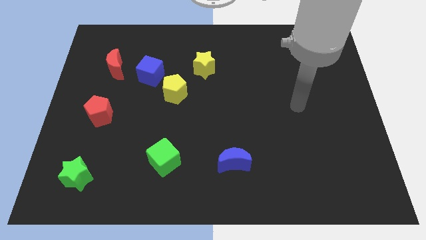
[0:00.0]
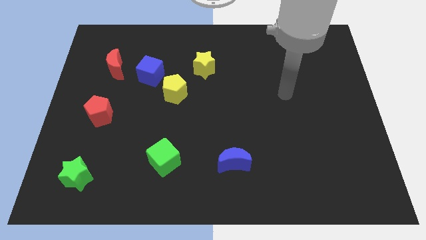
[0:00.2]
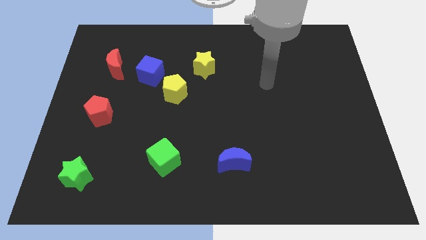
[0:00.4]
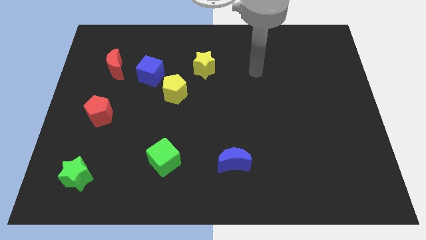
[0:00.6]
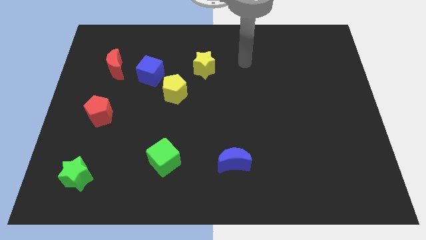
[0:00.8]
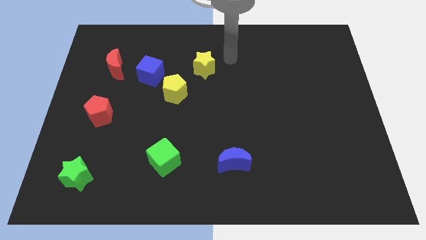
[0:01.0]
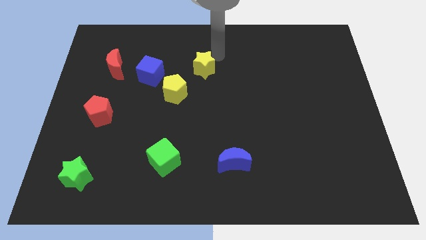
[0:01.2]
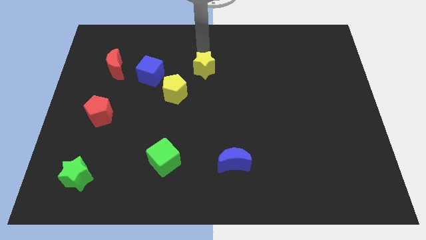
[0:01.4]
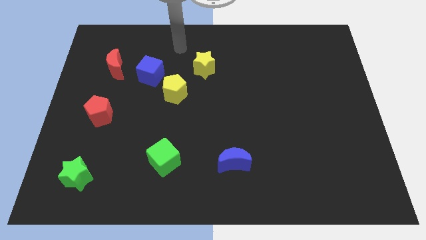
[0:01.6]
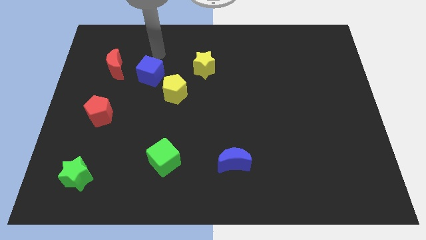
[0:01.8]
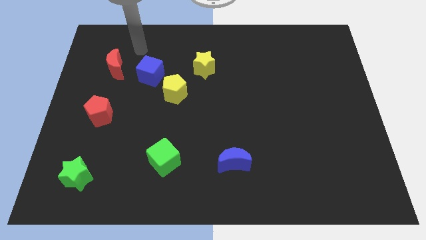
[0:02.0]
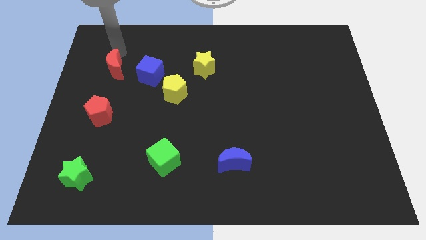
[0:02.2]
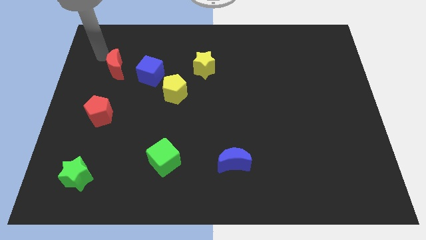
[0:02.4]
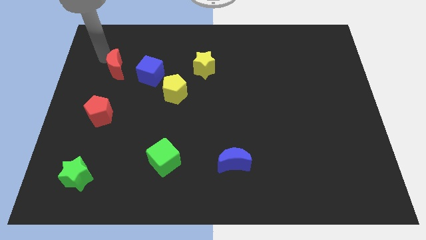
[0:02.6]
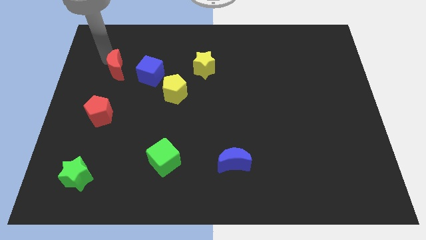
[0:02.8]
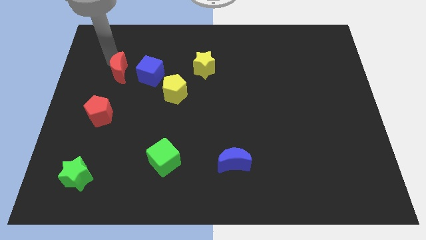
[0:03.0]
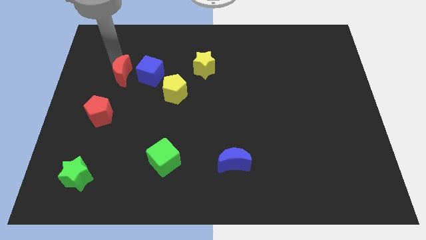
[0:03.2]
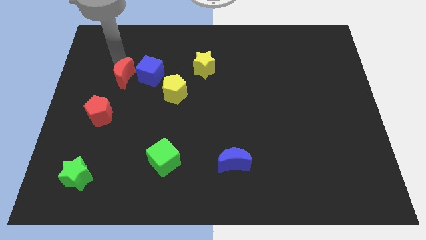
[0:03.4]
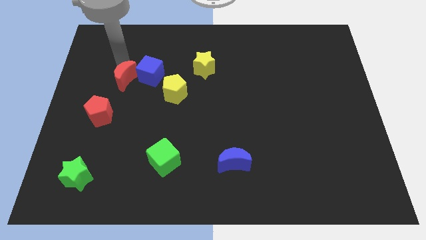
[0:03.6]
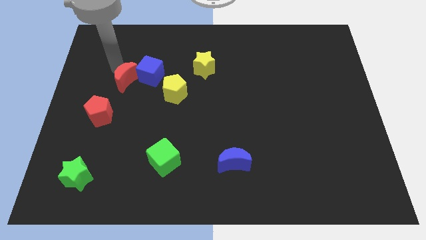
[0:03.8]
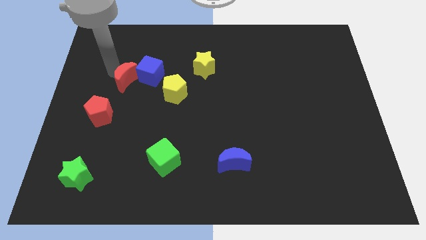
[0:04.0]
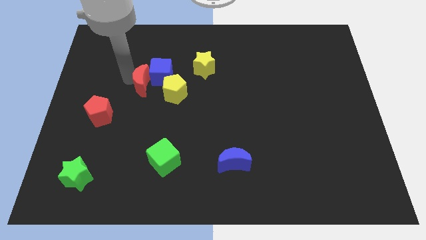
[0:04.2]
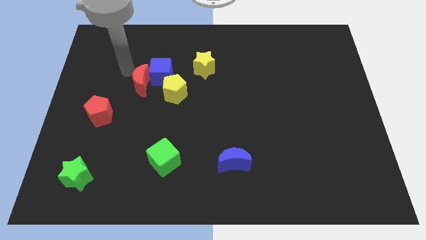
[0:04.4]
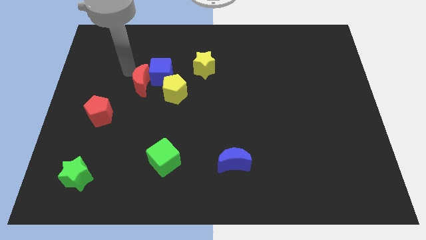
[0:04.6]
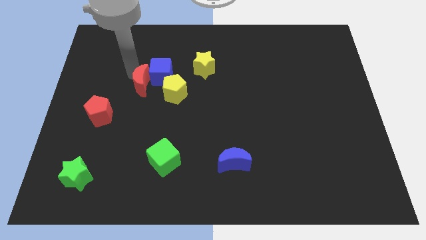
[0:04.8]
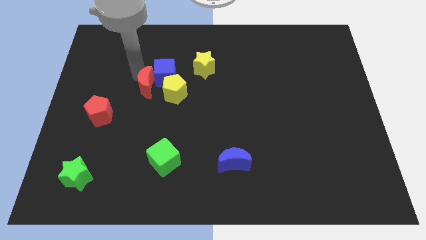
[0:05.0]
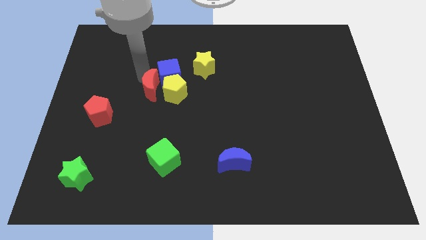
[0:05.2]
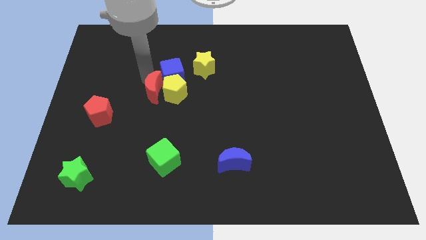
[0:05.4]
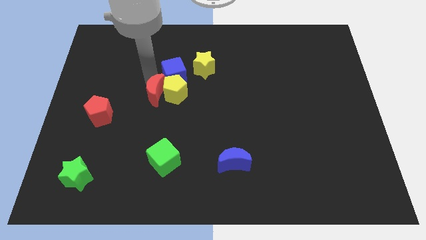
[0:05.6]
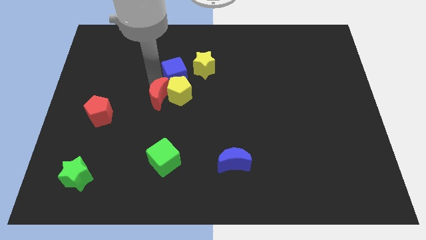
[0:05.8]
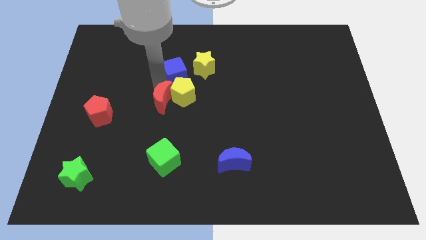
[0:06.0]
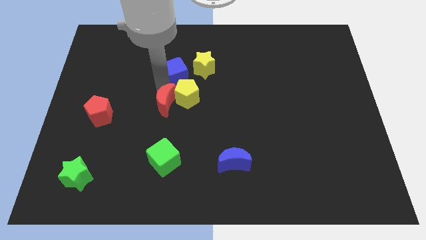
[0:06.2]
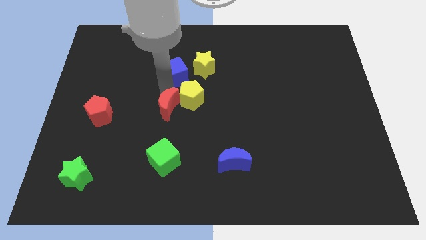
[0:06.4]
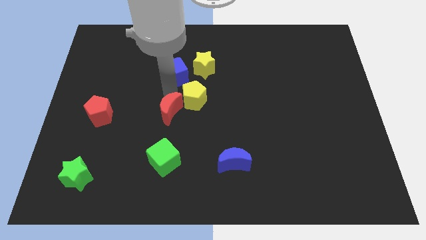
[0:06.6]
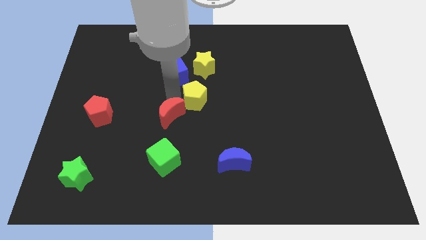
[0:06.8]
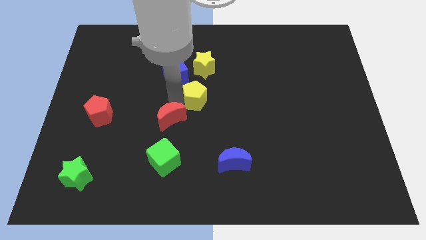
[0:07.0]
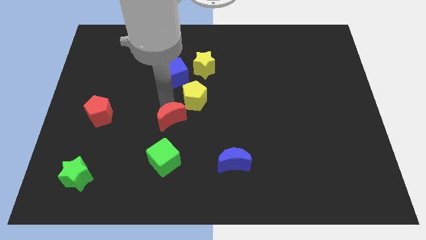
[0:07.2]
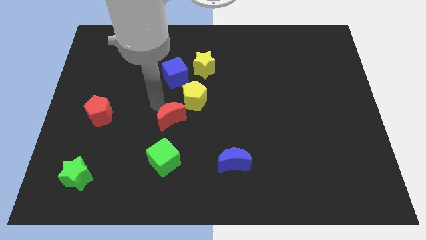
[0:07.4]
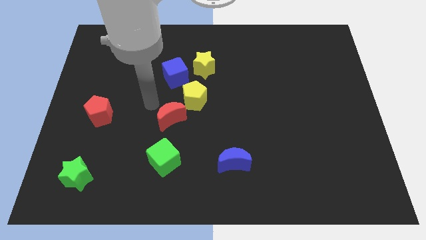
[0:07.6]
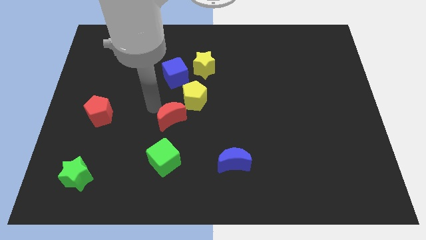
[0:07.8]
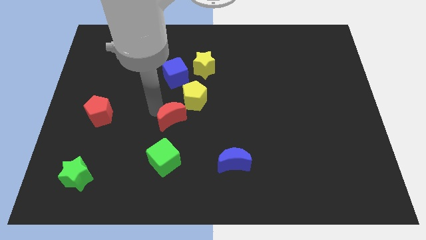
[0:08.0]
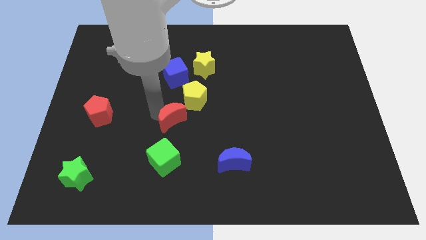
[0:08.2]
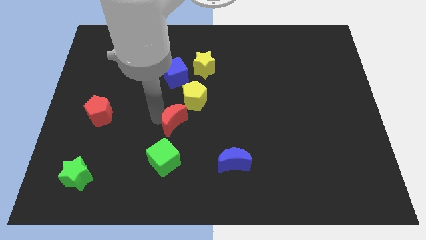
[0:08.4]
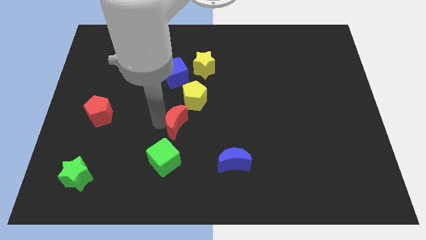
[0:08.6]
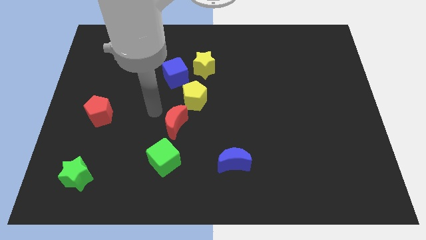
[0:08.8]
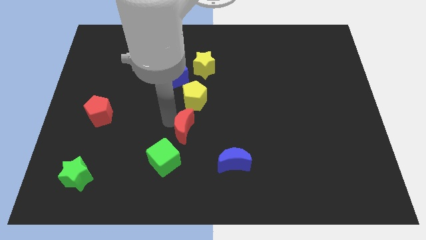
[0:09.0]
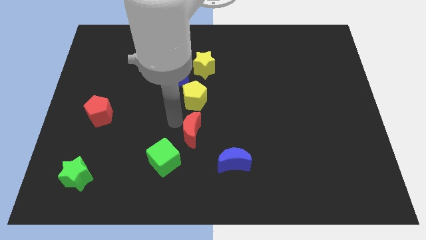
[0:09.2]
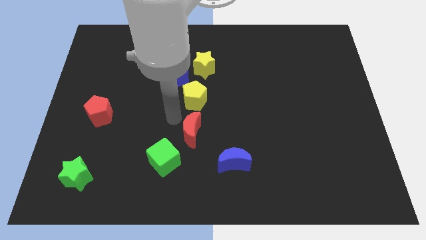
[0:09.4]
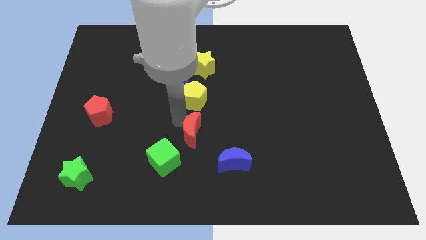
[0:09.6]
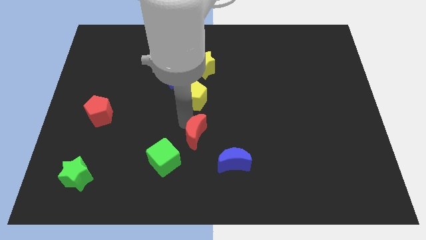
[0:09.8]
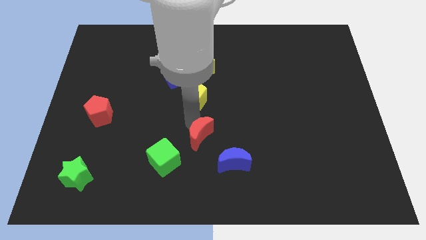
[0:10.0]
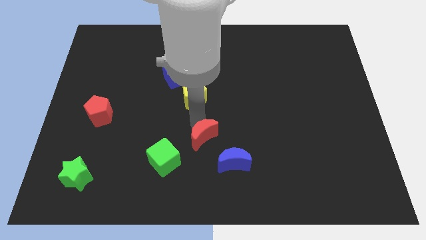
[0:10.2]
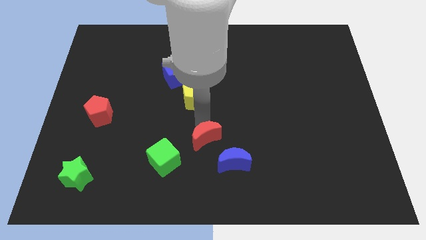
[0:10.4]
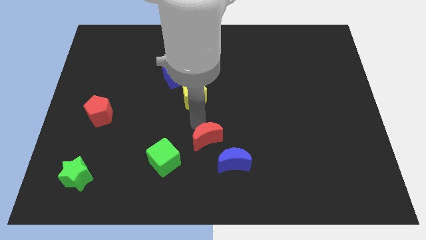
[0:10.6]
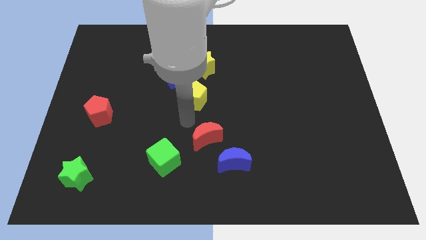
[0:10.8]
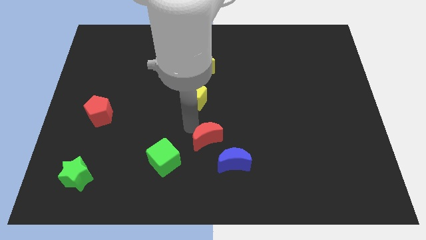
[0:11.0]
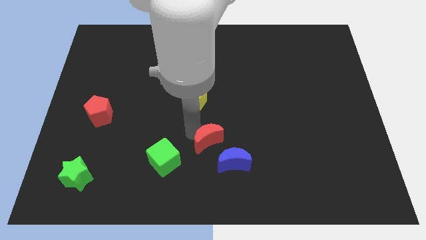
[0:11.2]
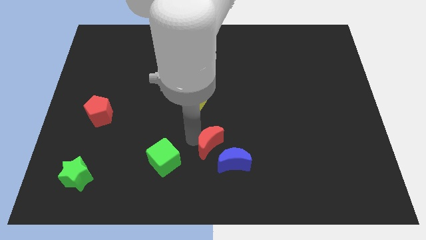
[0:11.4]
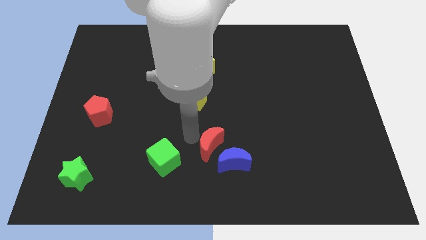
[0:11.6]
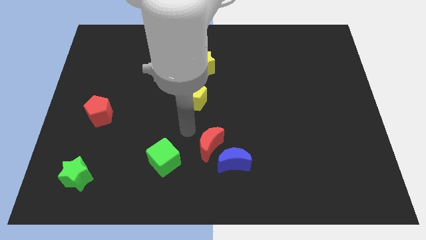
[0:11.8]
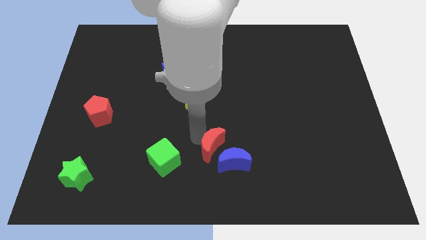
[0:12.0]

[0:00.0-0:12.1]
slide the red moon towards the blue moon

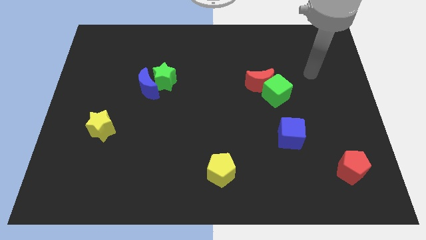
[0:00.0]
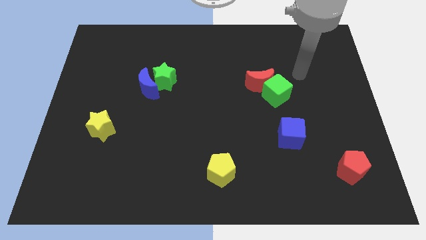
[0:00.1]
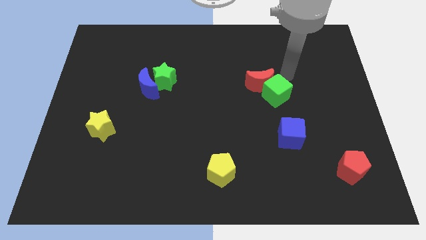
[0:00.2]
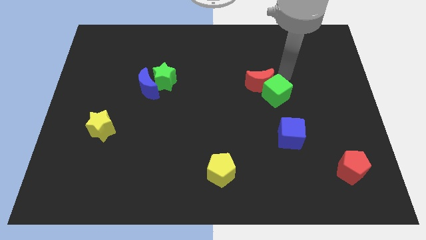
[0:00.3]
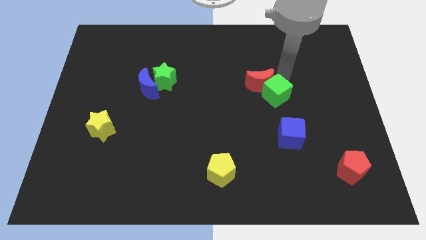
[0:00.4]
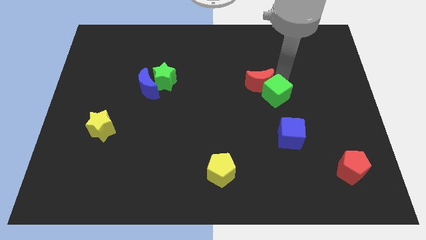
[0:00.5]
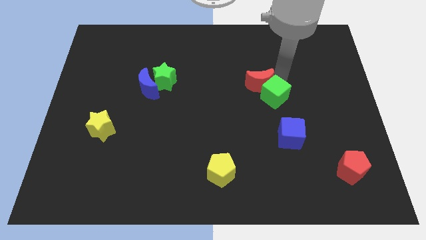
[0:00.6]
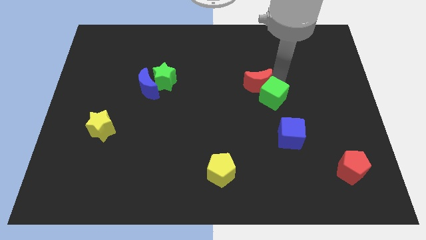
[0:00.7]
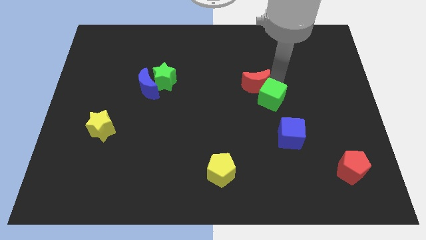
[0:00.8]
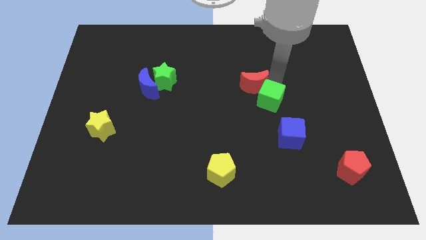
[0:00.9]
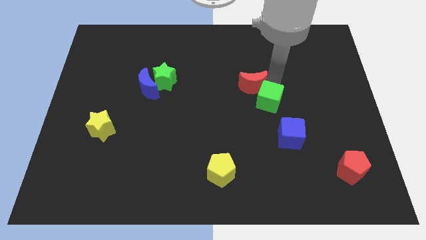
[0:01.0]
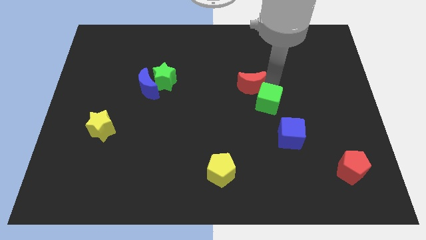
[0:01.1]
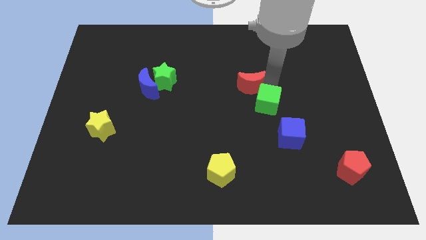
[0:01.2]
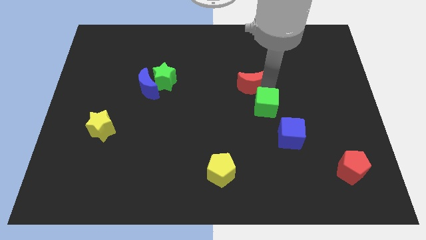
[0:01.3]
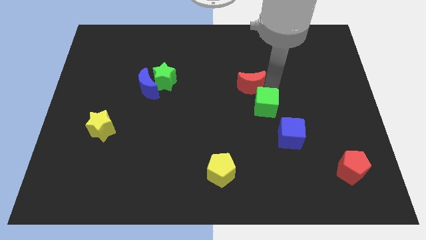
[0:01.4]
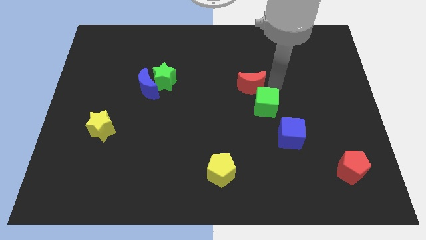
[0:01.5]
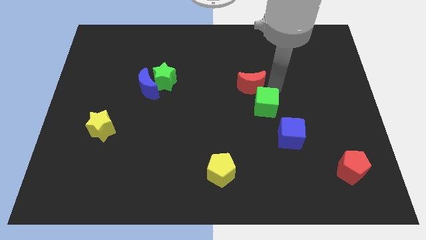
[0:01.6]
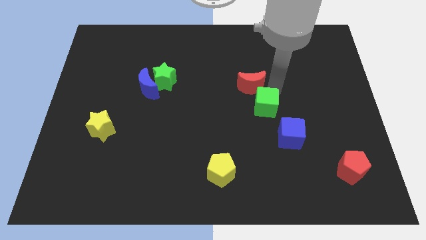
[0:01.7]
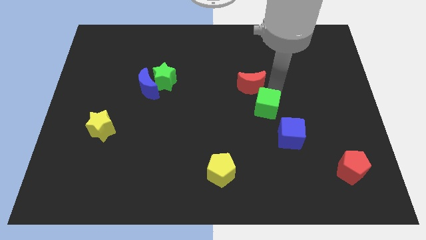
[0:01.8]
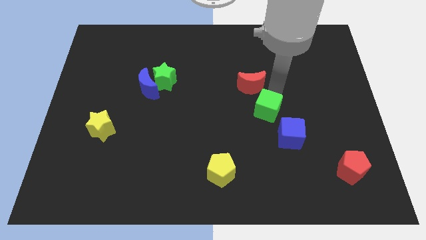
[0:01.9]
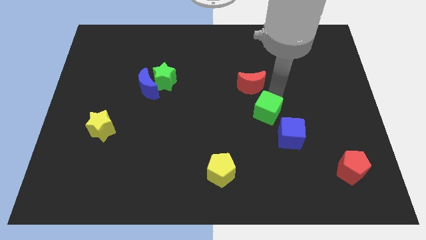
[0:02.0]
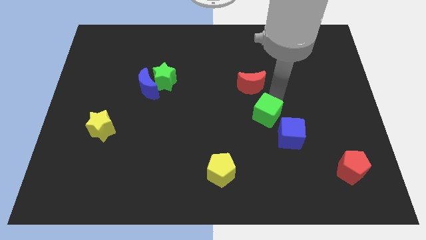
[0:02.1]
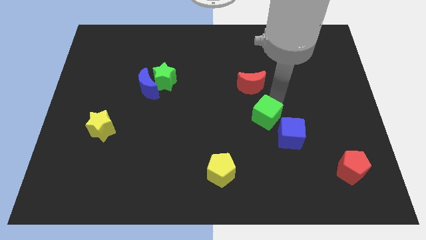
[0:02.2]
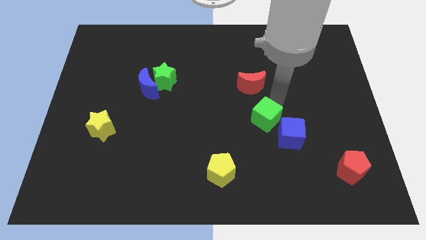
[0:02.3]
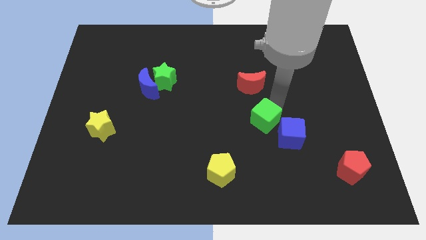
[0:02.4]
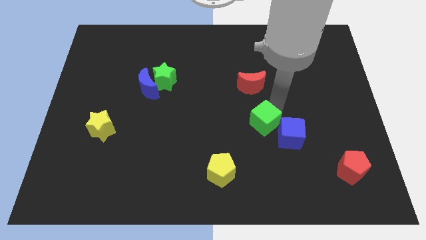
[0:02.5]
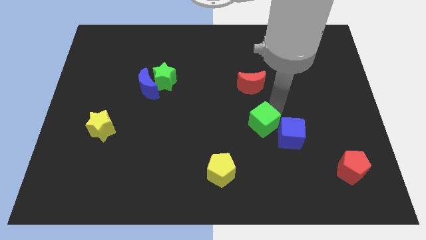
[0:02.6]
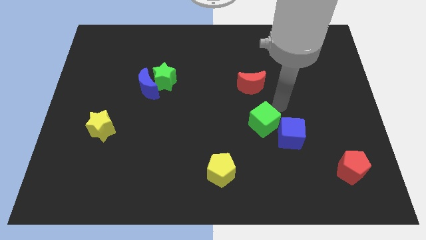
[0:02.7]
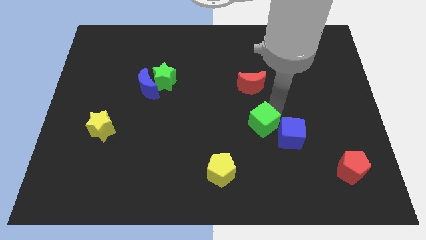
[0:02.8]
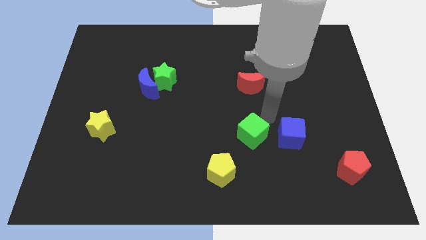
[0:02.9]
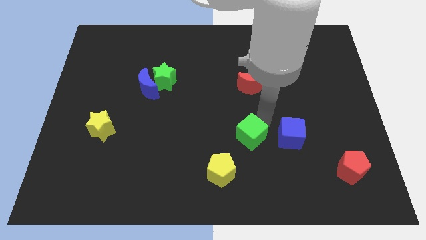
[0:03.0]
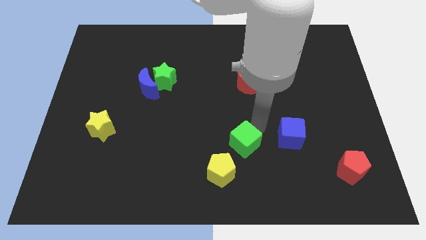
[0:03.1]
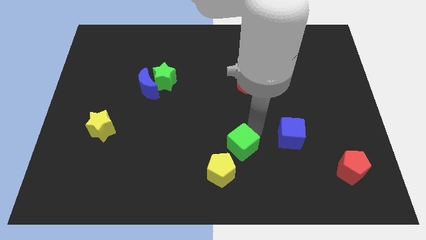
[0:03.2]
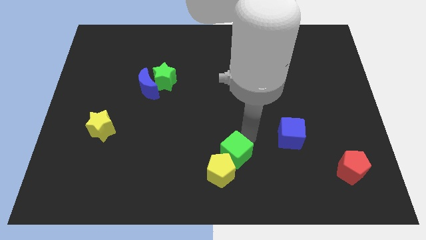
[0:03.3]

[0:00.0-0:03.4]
push the green cube next to the yellow pentagon
